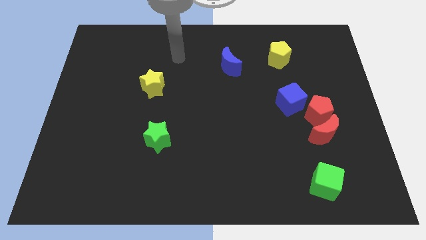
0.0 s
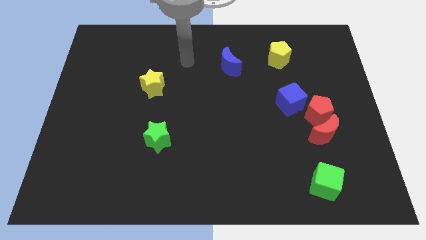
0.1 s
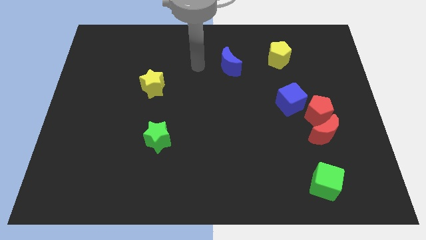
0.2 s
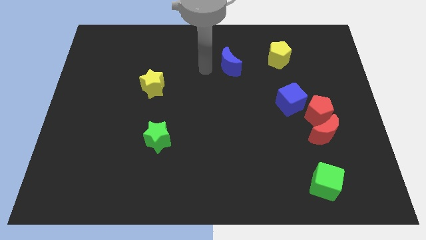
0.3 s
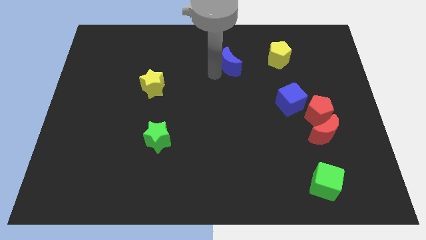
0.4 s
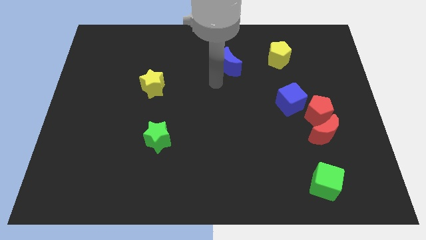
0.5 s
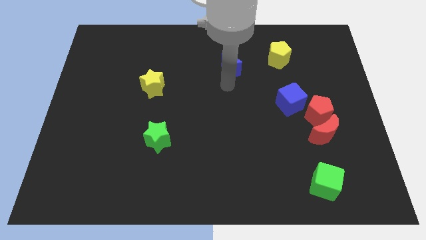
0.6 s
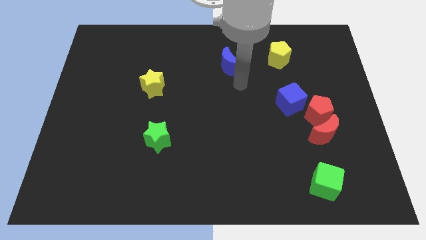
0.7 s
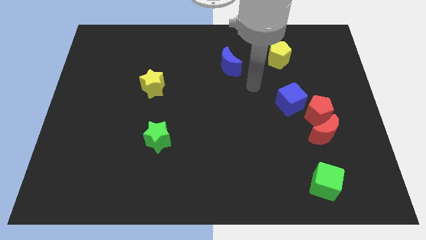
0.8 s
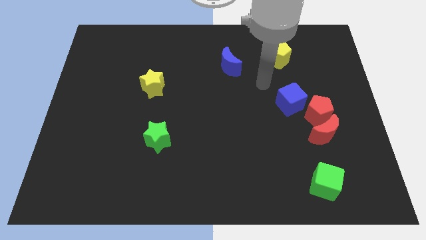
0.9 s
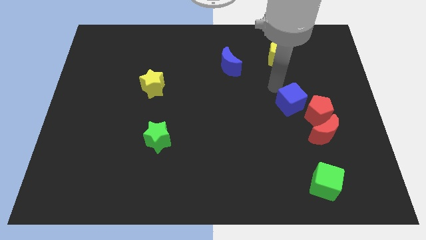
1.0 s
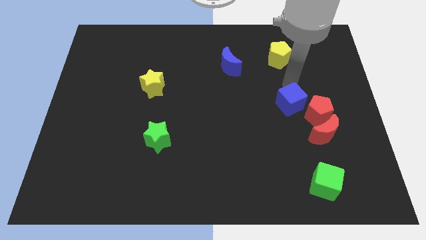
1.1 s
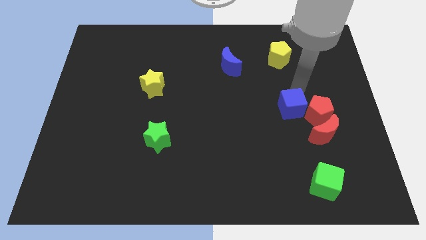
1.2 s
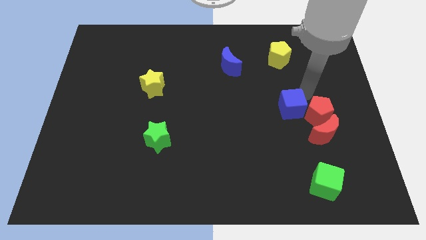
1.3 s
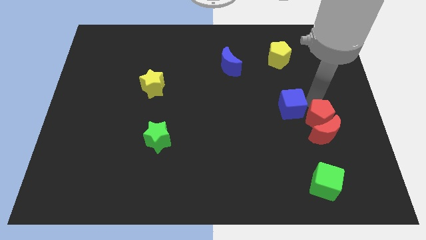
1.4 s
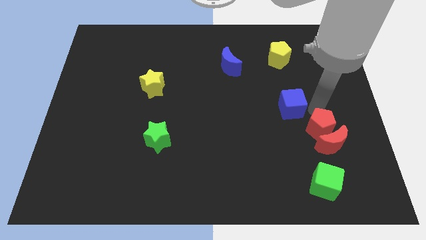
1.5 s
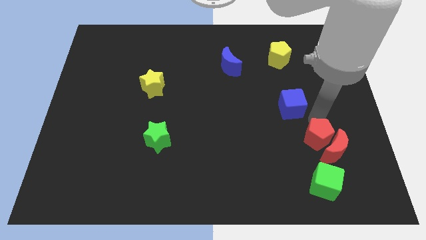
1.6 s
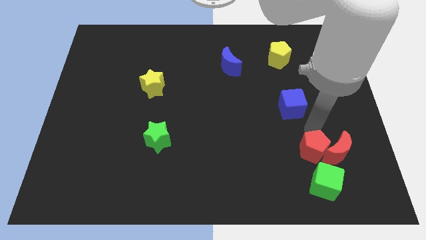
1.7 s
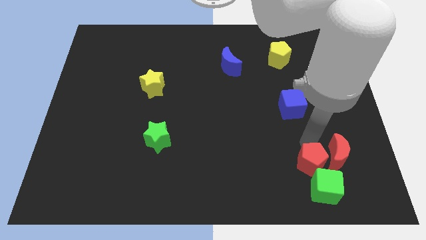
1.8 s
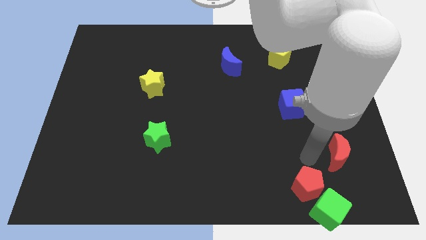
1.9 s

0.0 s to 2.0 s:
pull the red moon apart from the red pentagon

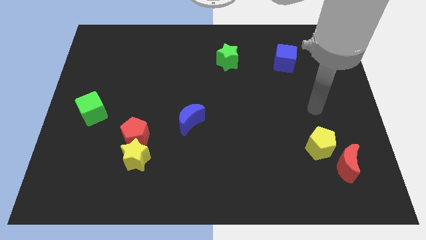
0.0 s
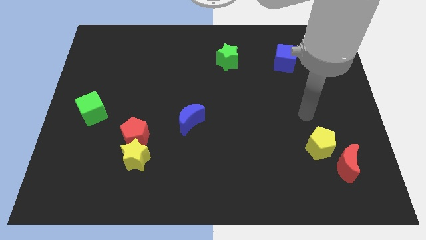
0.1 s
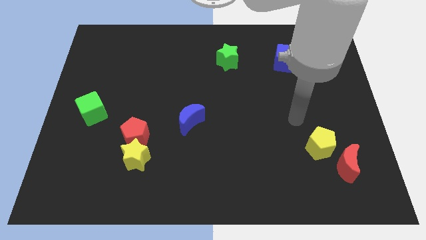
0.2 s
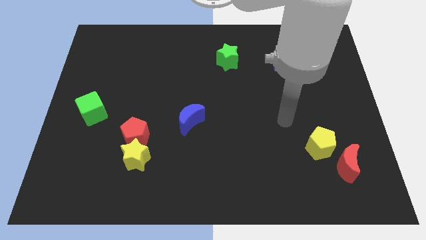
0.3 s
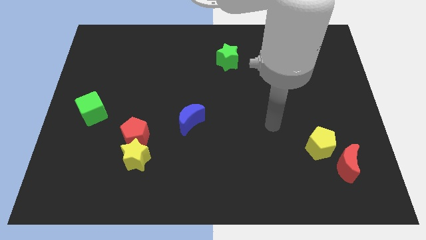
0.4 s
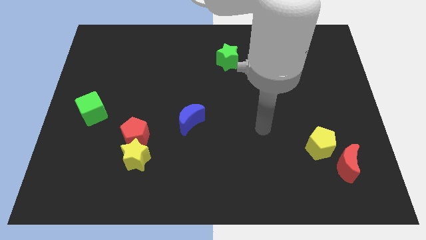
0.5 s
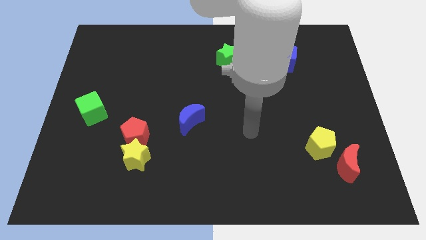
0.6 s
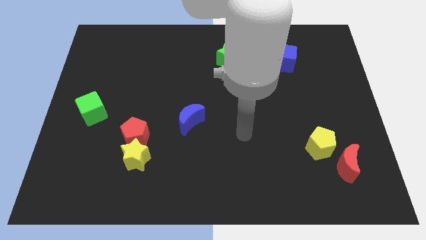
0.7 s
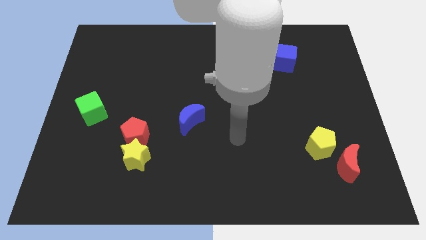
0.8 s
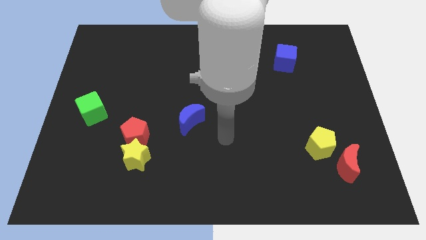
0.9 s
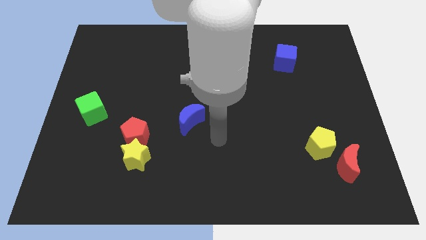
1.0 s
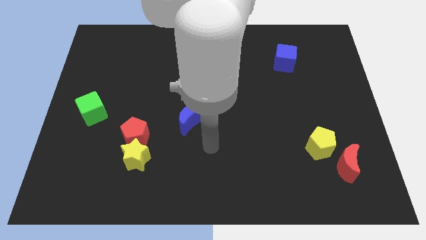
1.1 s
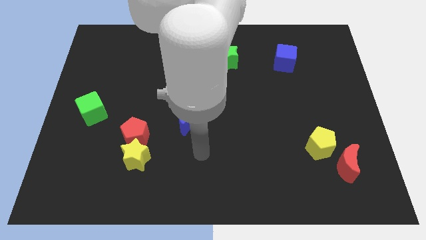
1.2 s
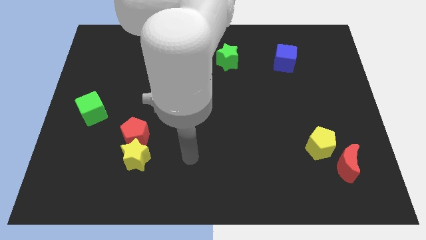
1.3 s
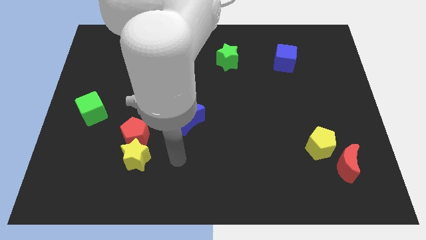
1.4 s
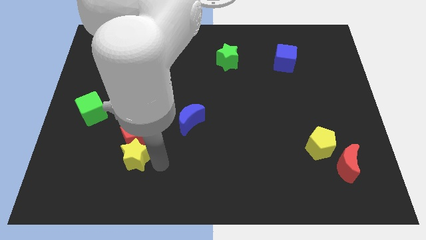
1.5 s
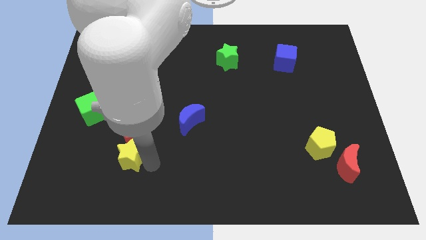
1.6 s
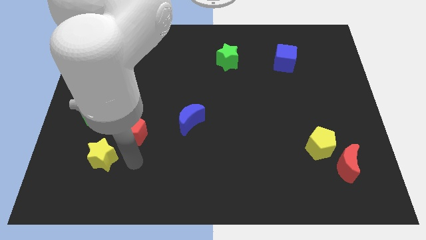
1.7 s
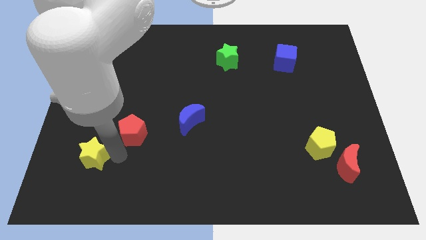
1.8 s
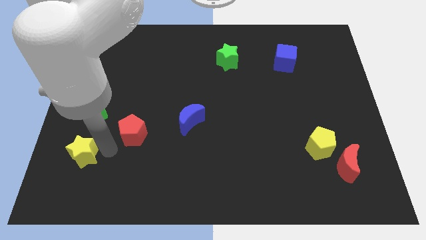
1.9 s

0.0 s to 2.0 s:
separate the red pentagon from the yellow star

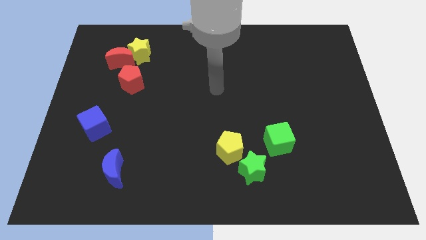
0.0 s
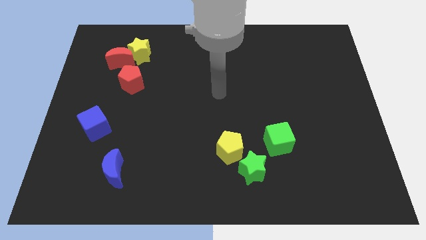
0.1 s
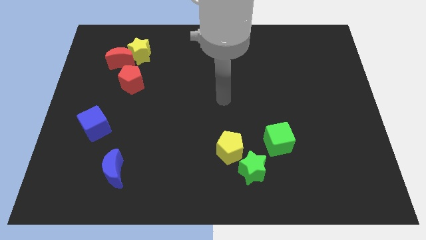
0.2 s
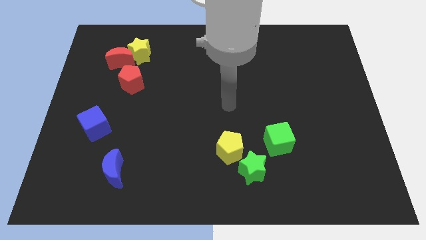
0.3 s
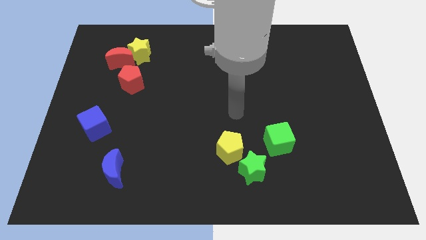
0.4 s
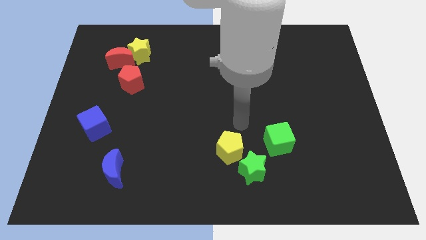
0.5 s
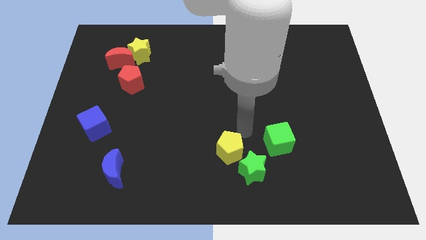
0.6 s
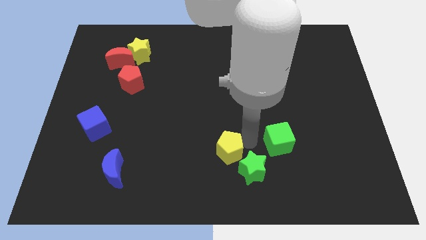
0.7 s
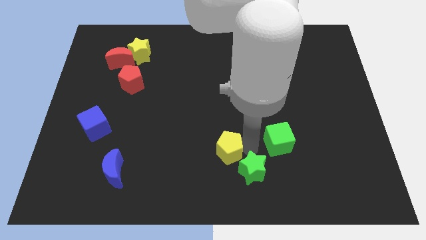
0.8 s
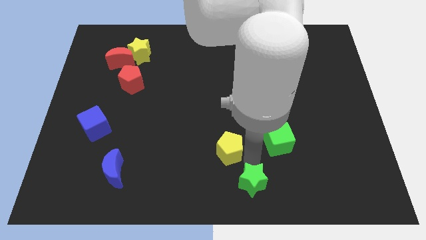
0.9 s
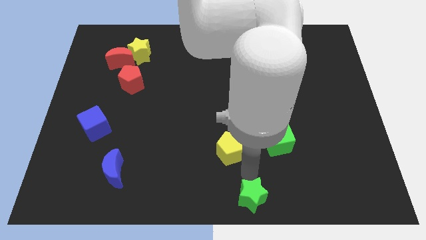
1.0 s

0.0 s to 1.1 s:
separate the yellow pentagon from the green star

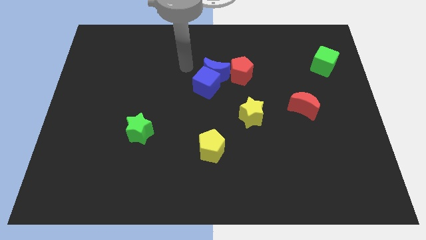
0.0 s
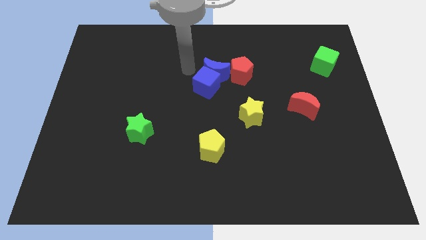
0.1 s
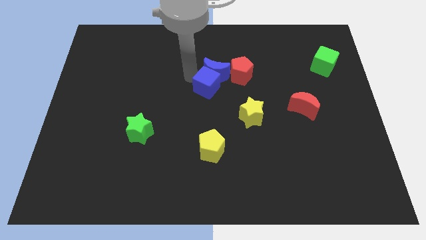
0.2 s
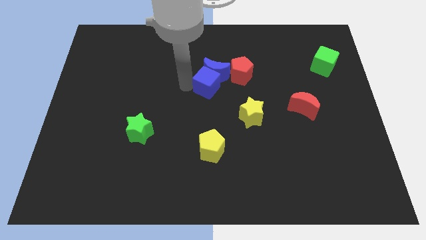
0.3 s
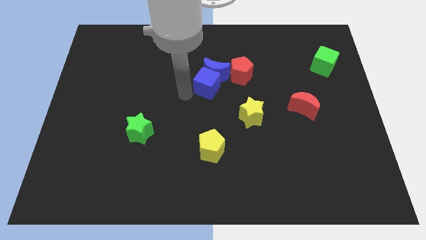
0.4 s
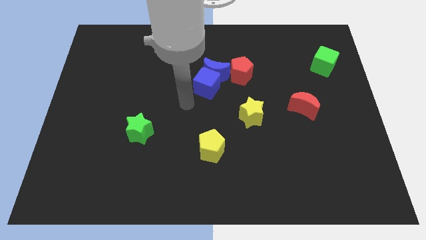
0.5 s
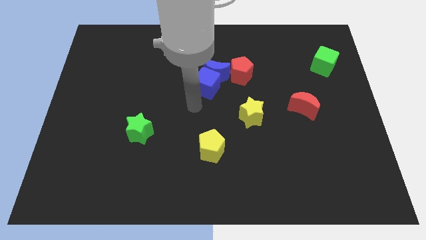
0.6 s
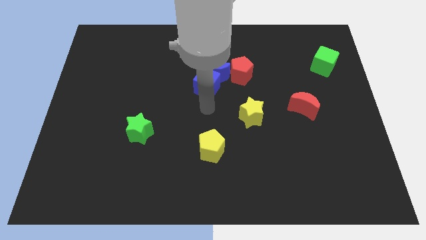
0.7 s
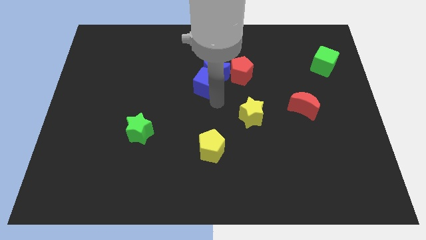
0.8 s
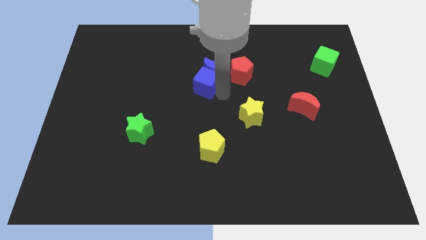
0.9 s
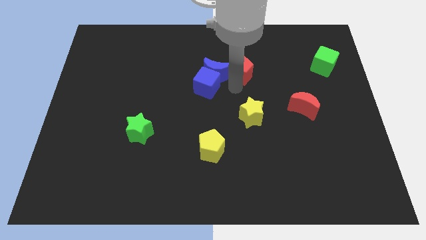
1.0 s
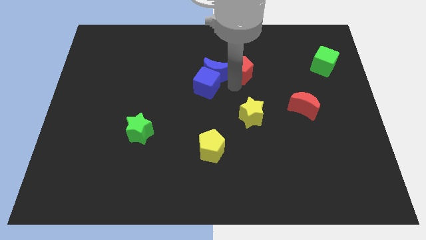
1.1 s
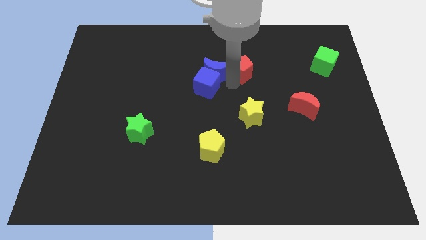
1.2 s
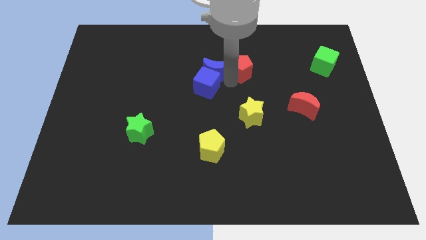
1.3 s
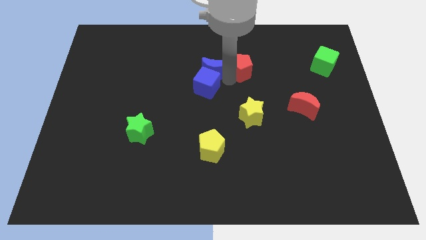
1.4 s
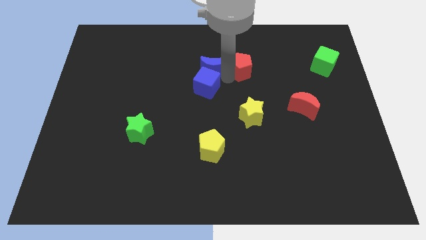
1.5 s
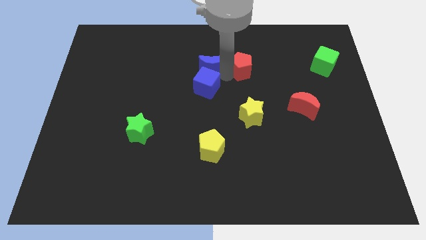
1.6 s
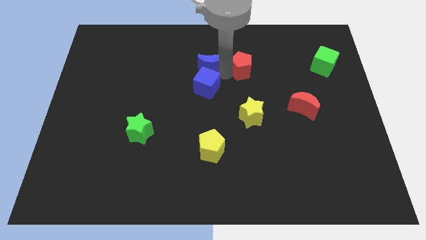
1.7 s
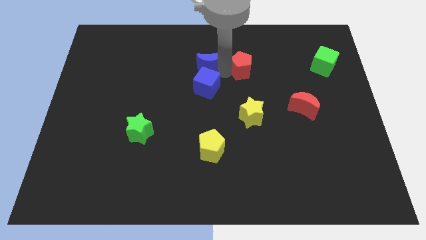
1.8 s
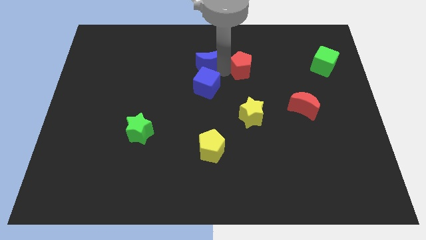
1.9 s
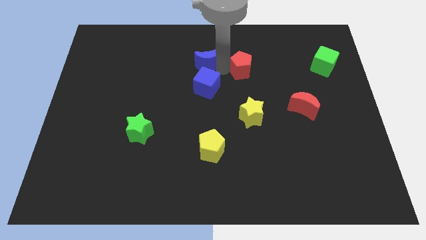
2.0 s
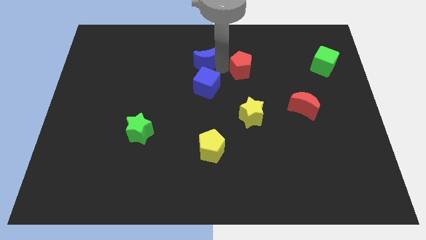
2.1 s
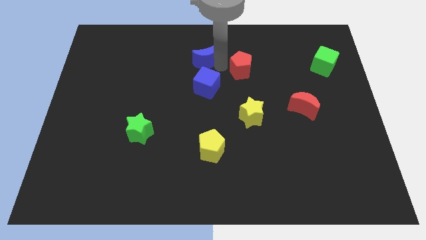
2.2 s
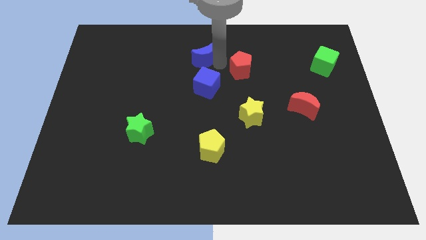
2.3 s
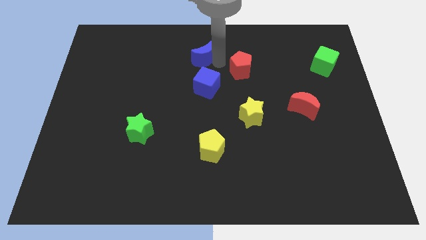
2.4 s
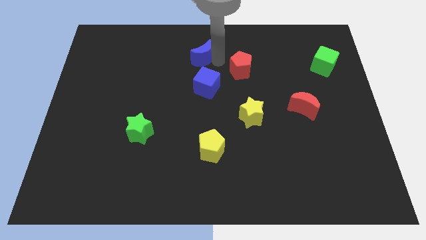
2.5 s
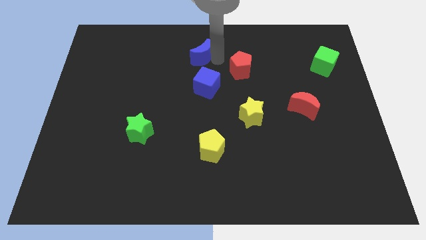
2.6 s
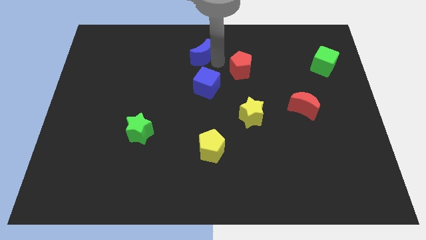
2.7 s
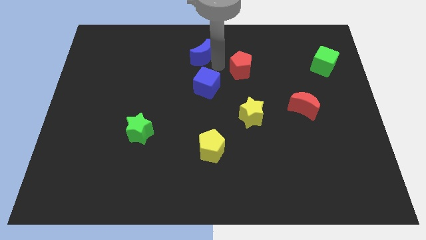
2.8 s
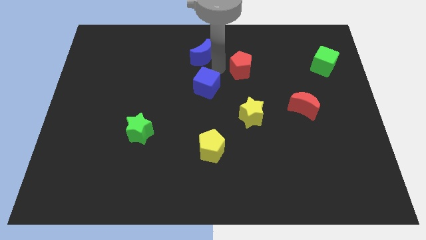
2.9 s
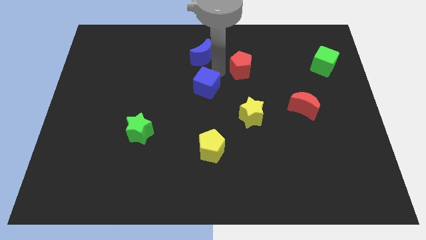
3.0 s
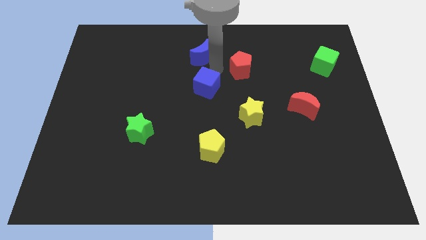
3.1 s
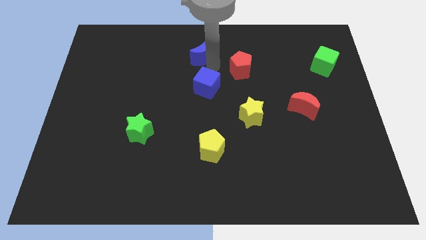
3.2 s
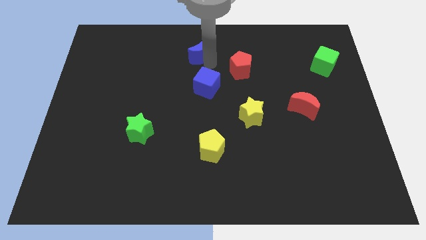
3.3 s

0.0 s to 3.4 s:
pull the blue moon apart from the blue cube and red pentagon

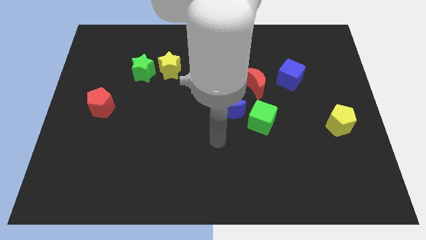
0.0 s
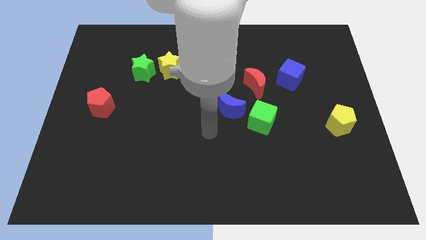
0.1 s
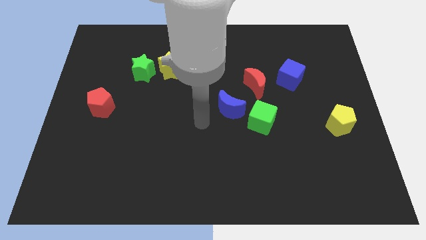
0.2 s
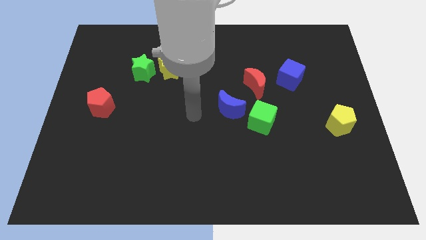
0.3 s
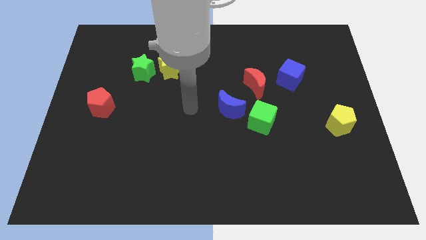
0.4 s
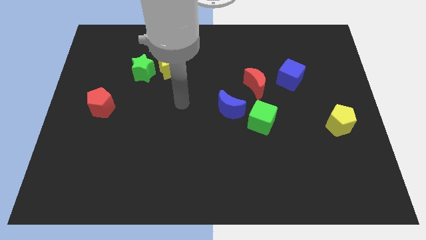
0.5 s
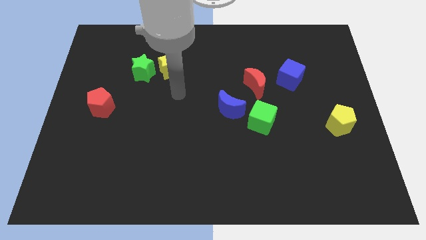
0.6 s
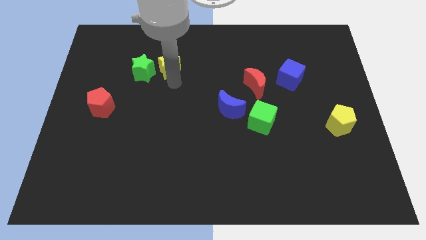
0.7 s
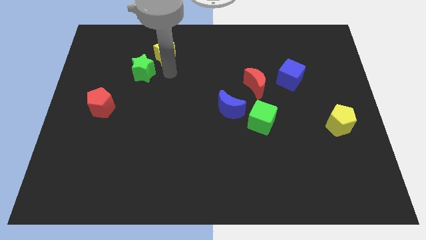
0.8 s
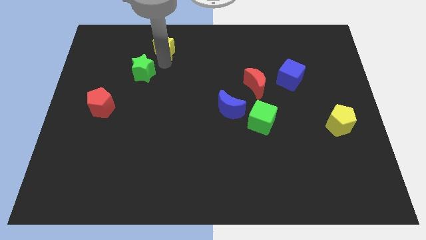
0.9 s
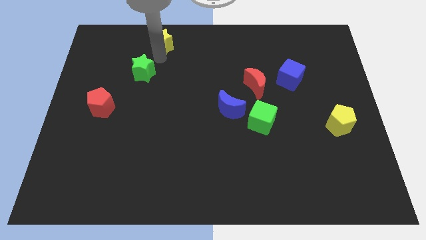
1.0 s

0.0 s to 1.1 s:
move the green star away from the yellow star
